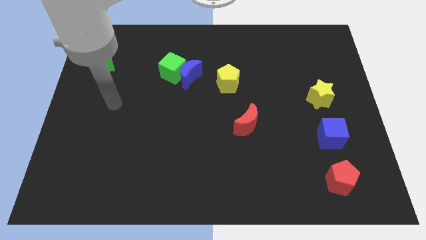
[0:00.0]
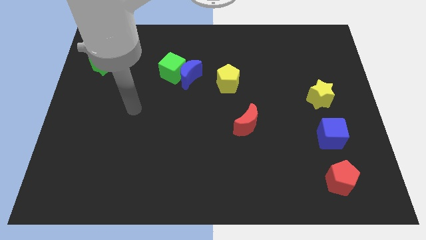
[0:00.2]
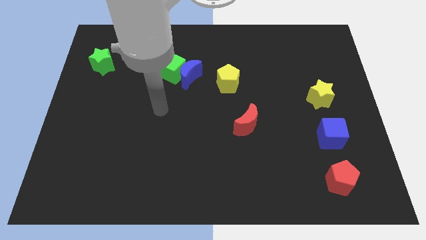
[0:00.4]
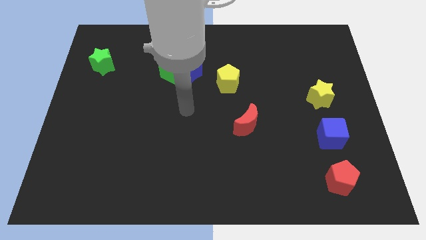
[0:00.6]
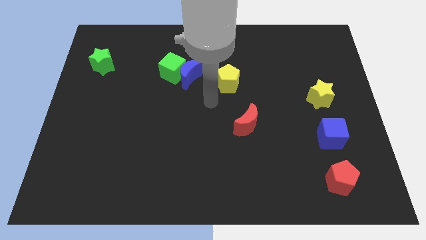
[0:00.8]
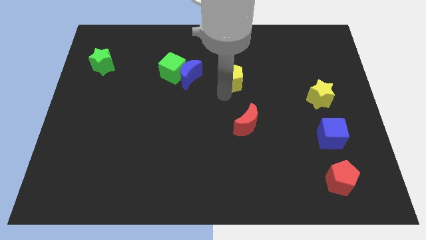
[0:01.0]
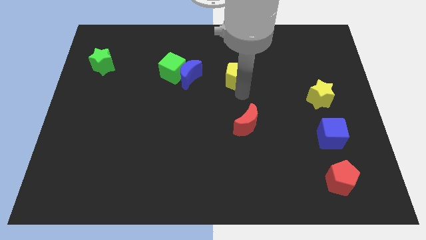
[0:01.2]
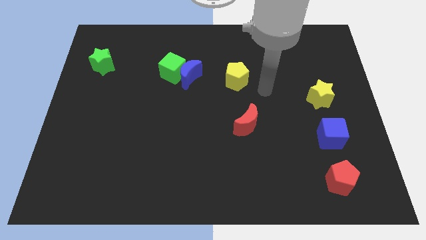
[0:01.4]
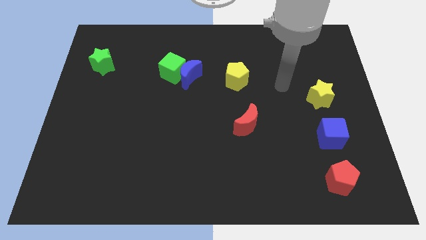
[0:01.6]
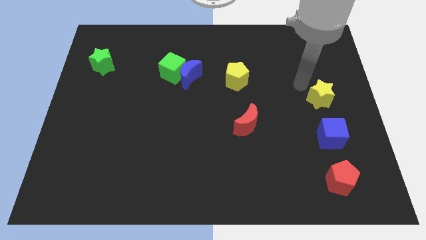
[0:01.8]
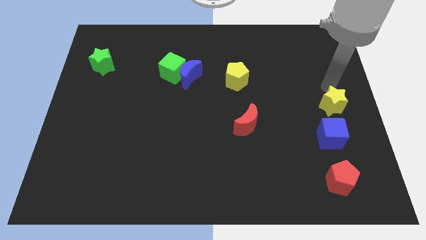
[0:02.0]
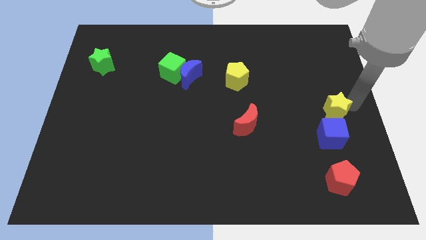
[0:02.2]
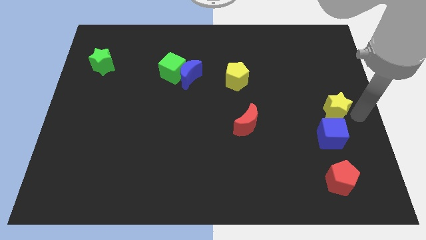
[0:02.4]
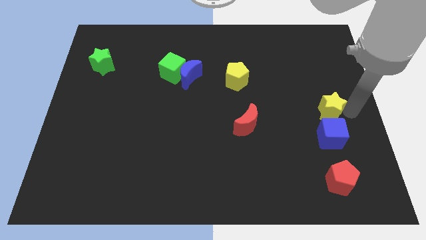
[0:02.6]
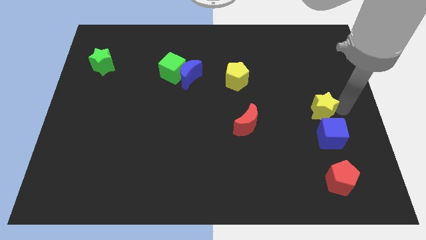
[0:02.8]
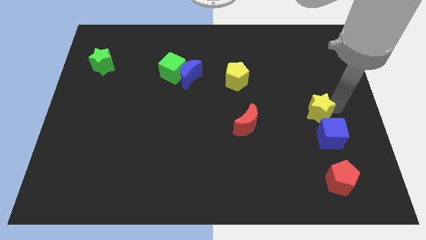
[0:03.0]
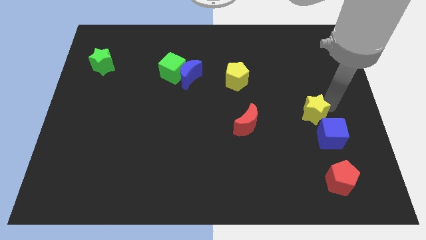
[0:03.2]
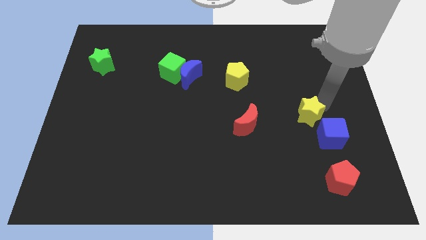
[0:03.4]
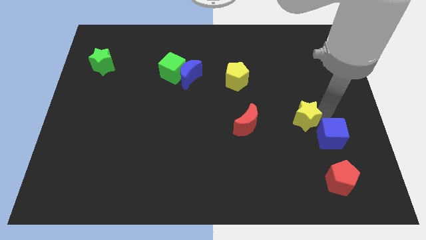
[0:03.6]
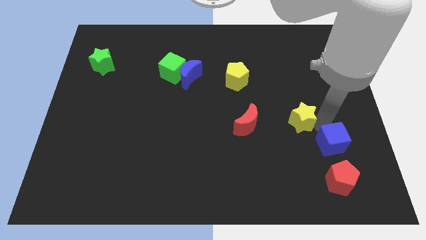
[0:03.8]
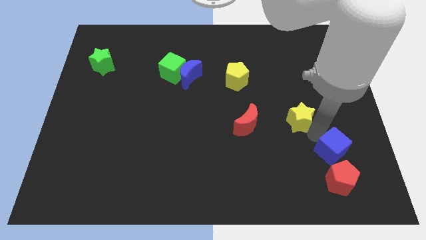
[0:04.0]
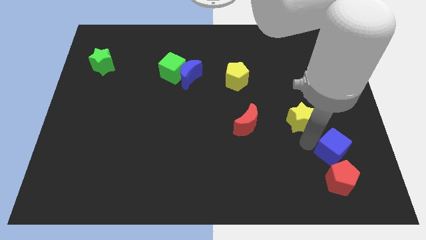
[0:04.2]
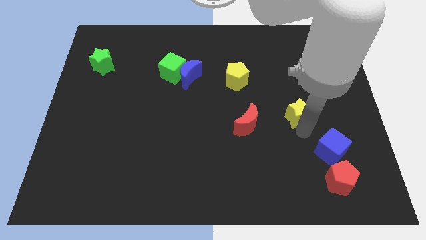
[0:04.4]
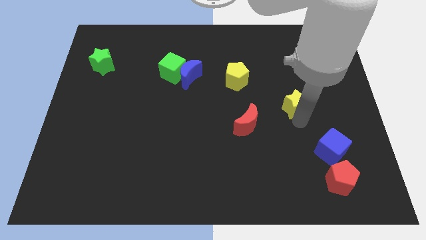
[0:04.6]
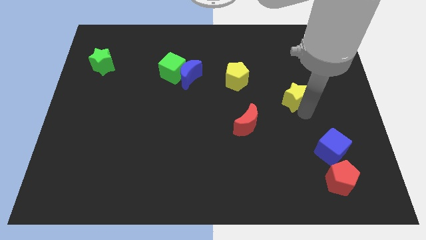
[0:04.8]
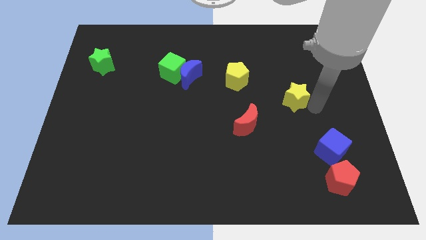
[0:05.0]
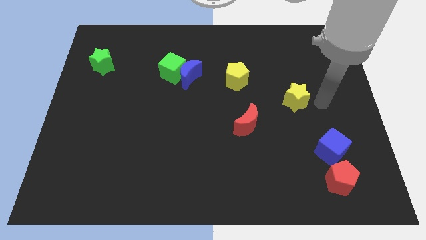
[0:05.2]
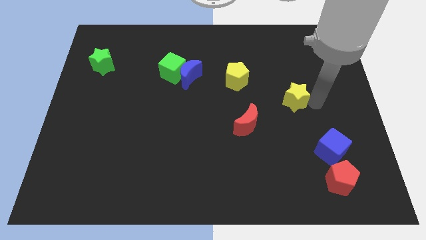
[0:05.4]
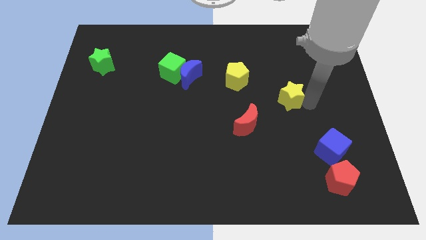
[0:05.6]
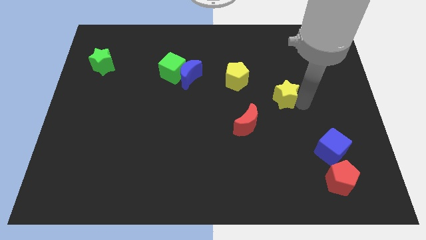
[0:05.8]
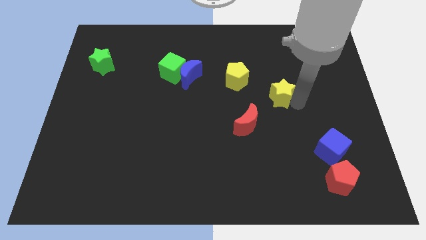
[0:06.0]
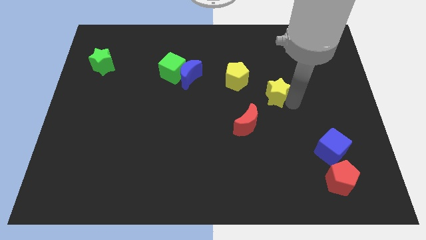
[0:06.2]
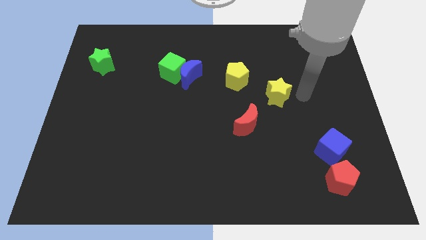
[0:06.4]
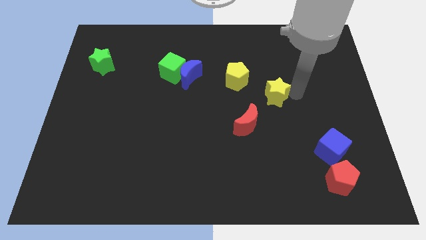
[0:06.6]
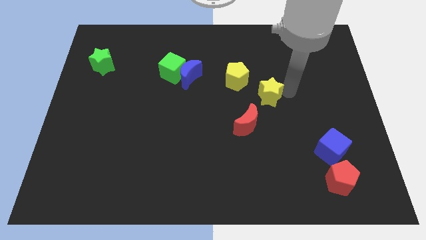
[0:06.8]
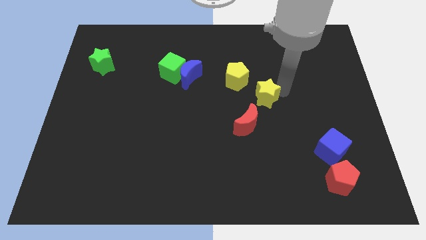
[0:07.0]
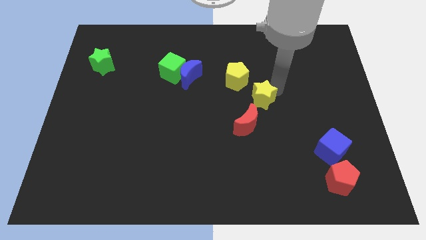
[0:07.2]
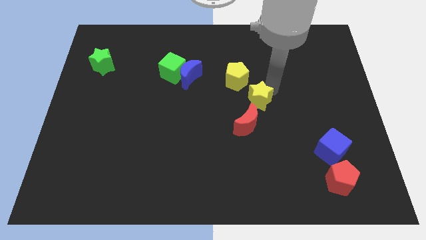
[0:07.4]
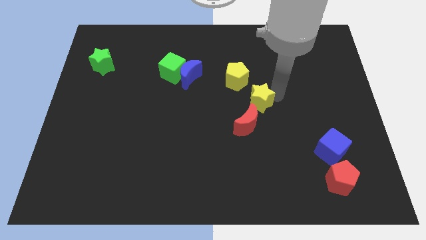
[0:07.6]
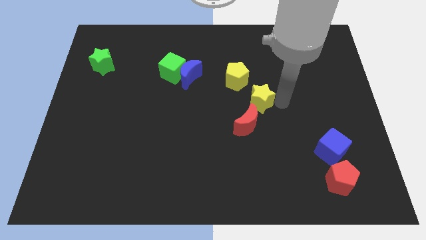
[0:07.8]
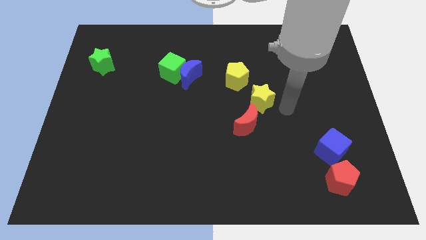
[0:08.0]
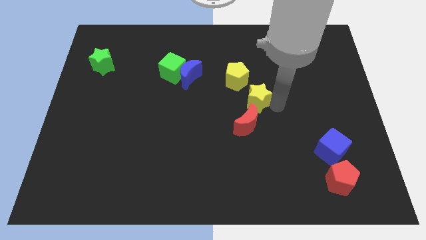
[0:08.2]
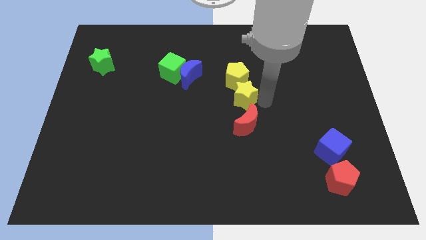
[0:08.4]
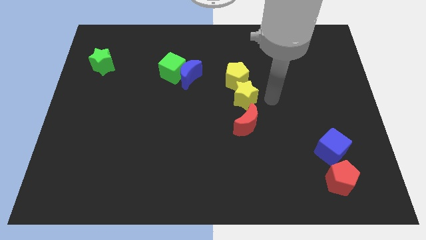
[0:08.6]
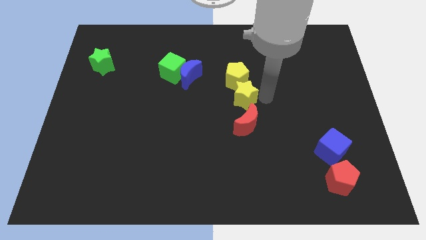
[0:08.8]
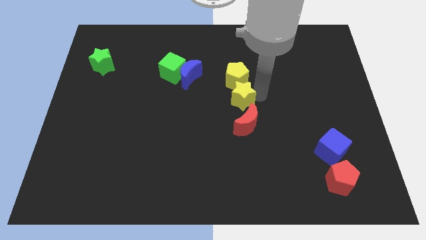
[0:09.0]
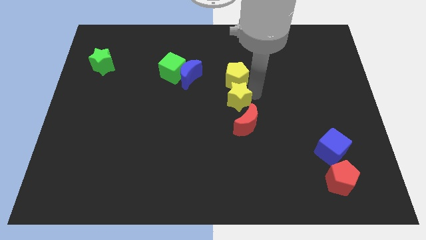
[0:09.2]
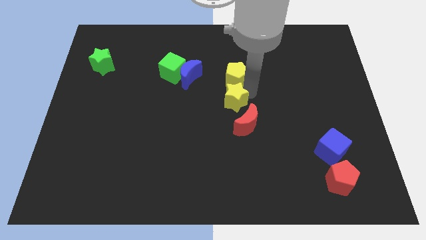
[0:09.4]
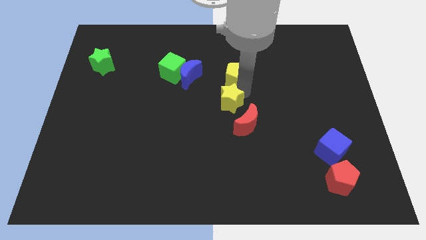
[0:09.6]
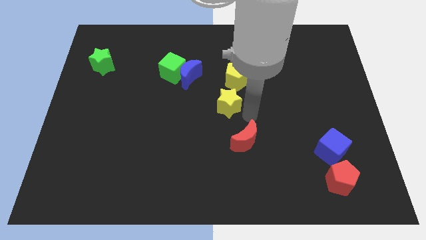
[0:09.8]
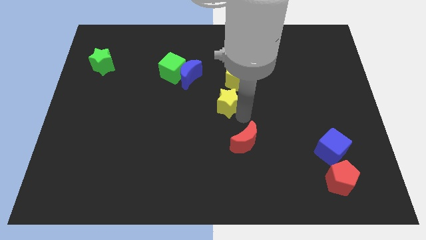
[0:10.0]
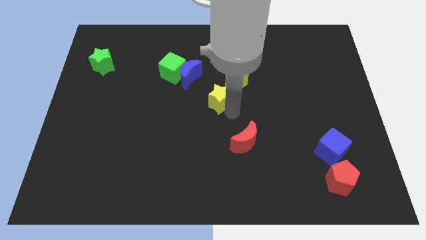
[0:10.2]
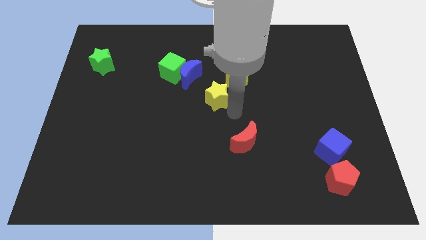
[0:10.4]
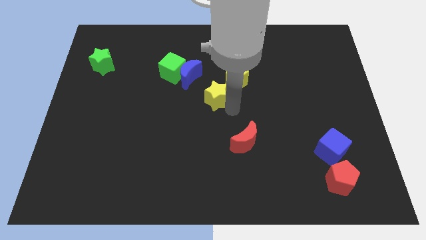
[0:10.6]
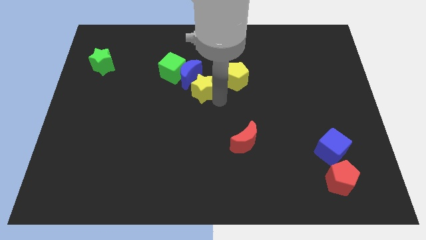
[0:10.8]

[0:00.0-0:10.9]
put the yellow star towards the blue moon

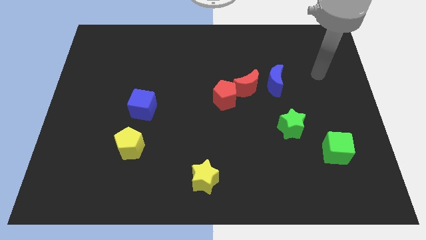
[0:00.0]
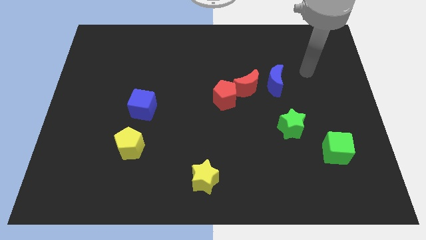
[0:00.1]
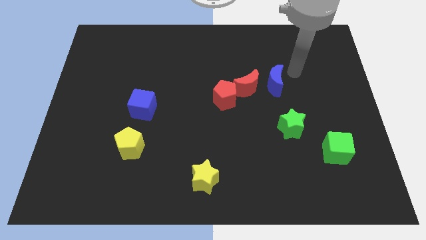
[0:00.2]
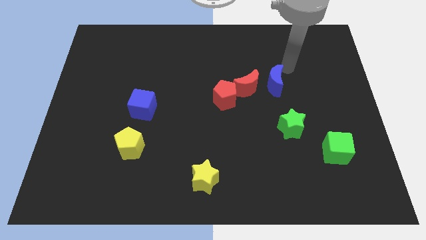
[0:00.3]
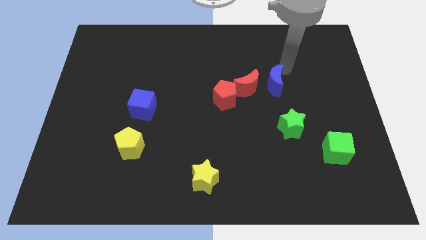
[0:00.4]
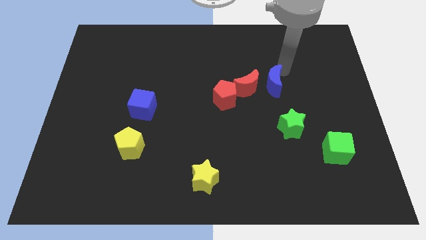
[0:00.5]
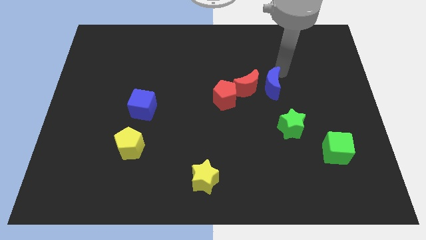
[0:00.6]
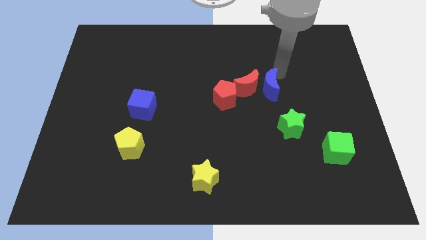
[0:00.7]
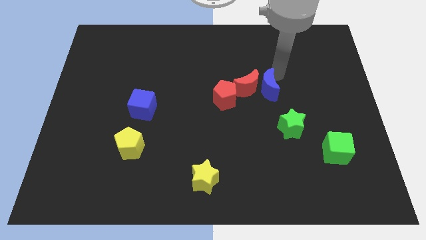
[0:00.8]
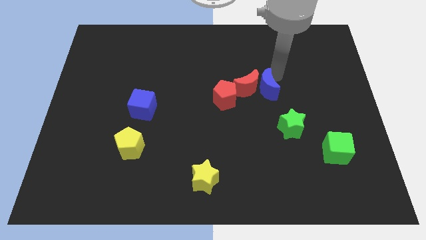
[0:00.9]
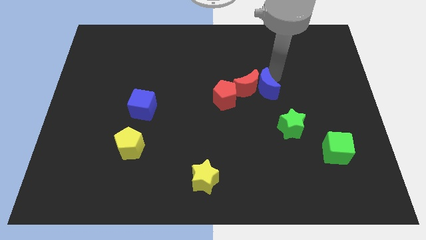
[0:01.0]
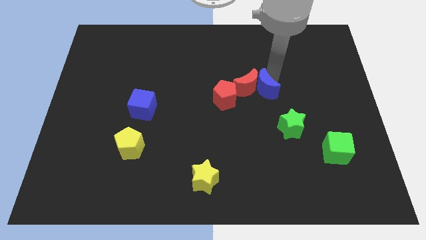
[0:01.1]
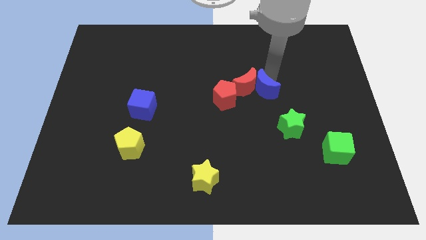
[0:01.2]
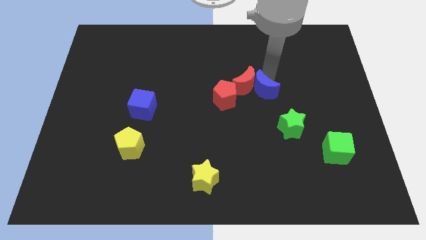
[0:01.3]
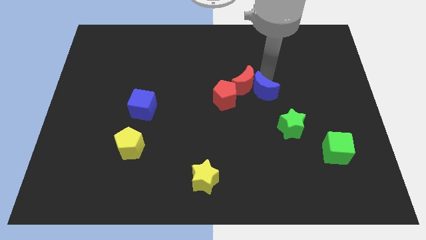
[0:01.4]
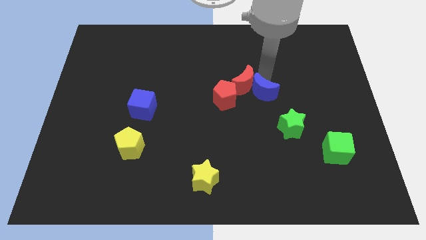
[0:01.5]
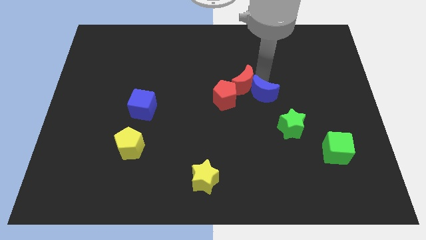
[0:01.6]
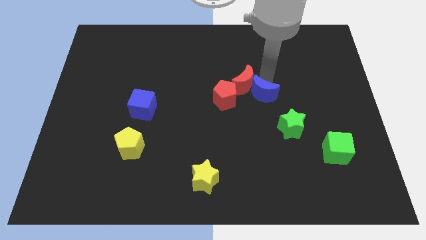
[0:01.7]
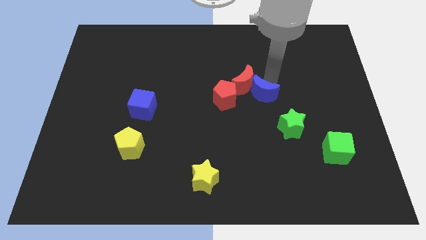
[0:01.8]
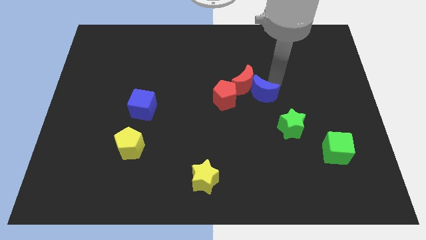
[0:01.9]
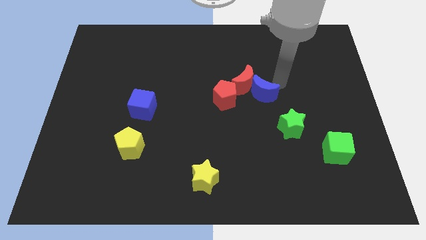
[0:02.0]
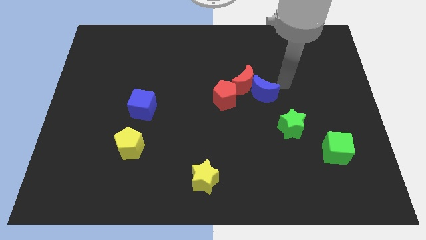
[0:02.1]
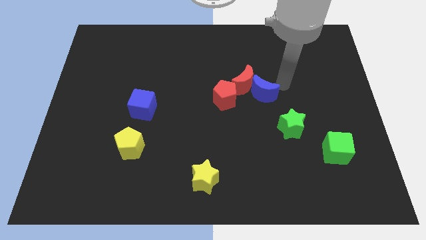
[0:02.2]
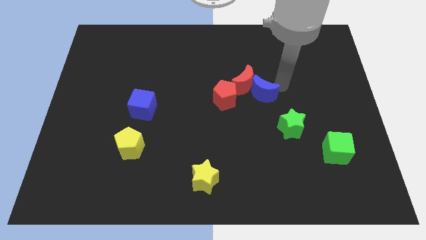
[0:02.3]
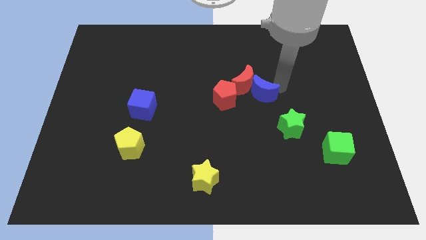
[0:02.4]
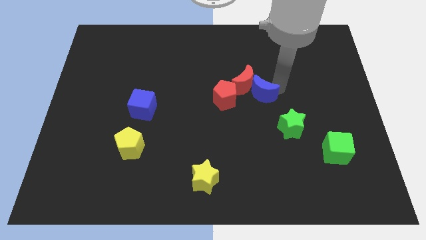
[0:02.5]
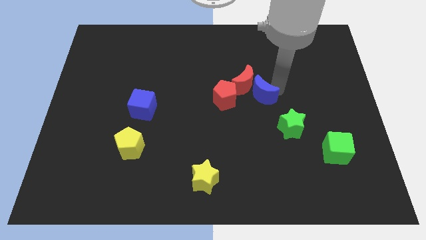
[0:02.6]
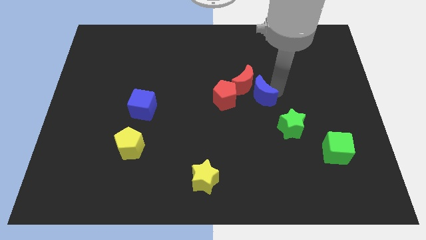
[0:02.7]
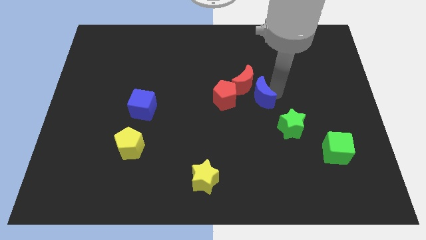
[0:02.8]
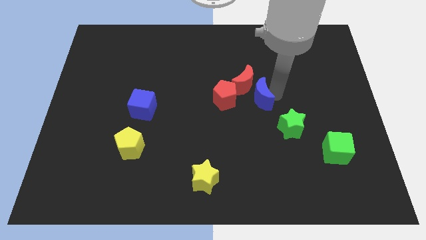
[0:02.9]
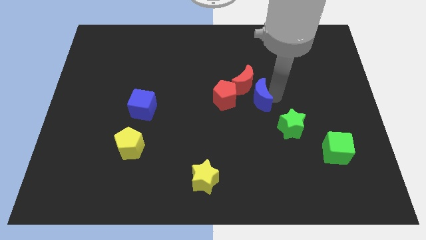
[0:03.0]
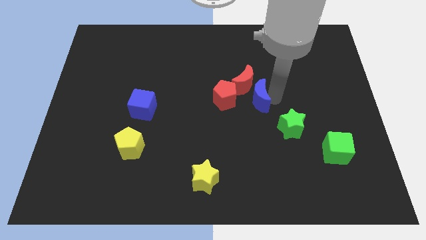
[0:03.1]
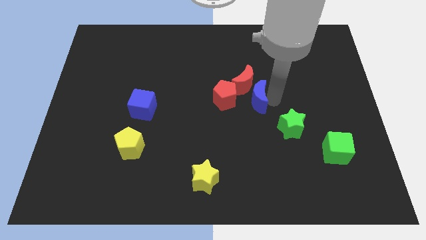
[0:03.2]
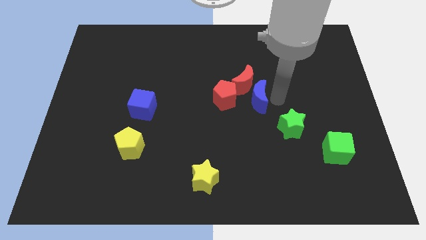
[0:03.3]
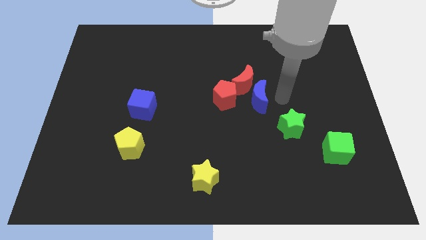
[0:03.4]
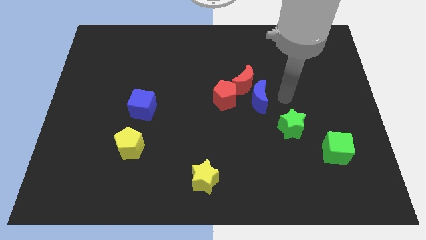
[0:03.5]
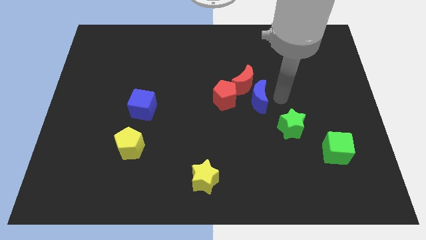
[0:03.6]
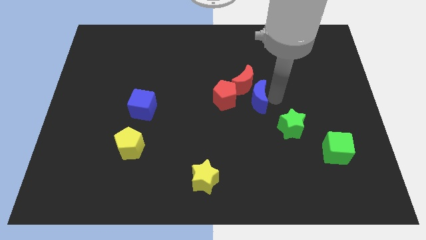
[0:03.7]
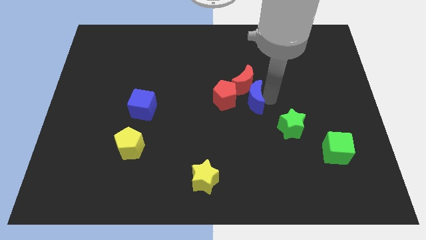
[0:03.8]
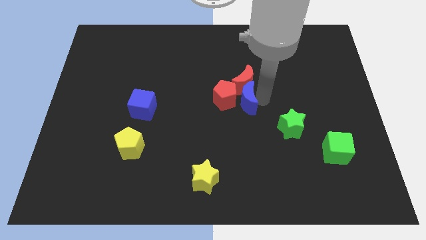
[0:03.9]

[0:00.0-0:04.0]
move the blue moon to the red pentagon
